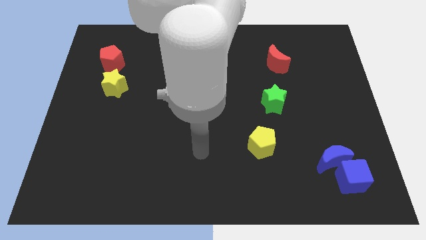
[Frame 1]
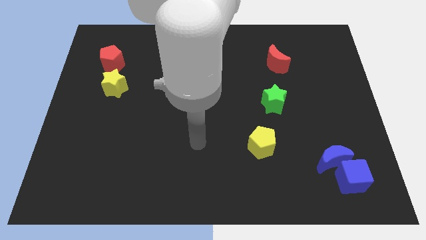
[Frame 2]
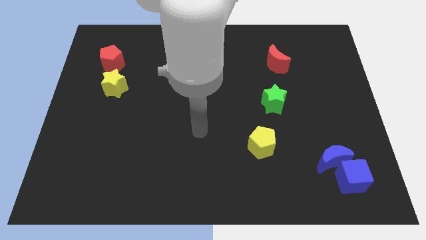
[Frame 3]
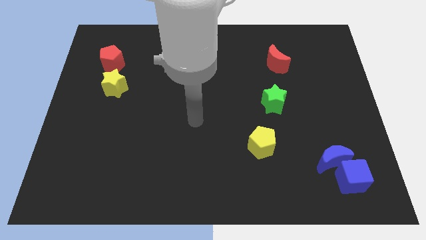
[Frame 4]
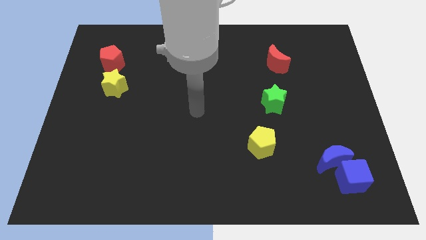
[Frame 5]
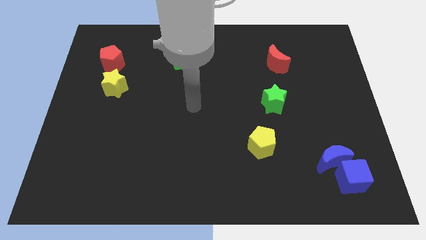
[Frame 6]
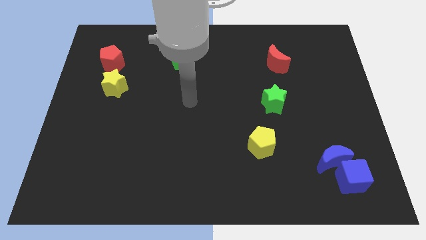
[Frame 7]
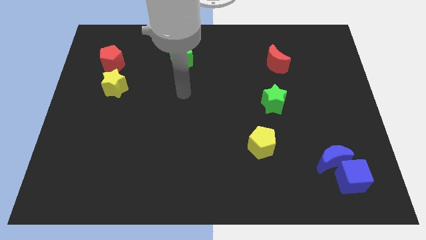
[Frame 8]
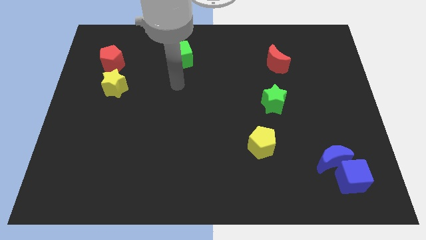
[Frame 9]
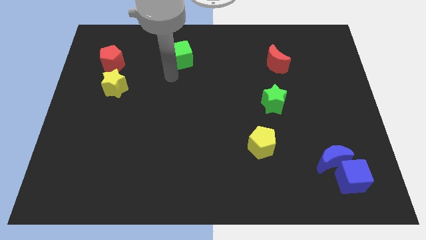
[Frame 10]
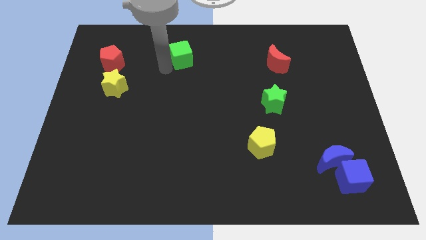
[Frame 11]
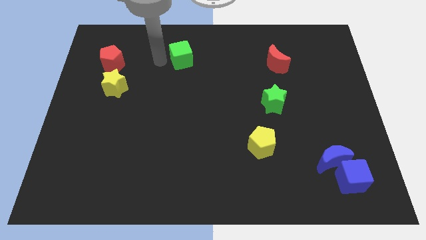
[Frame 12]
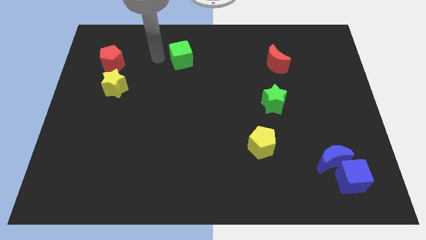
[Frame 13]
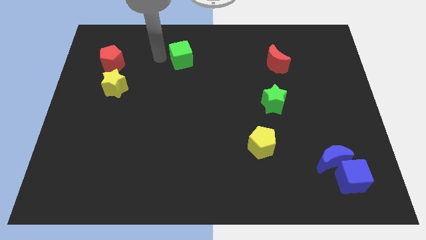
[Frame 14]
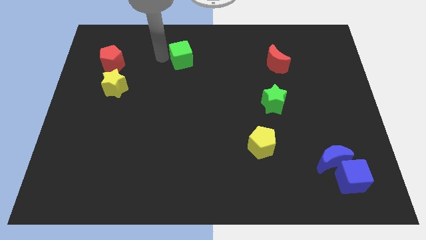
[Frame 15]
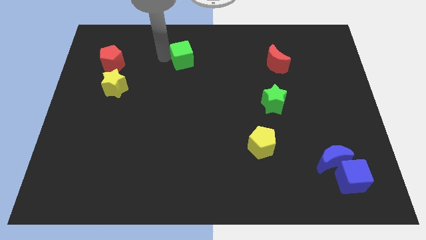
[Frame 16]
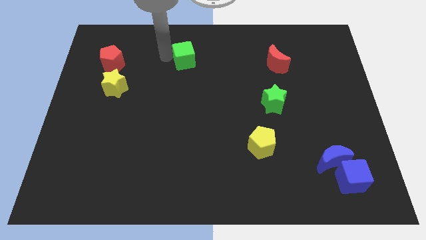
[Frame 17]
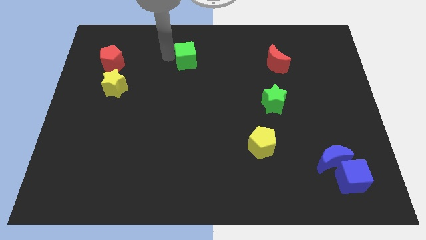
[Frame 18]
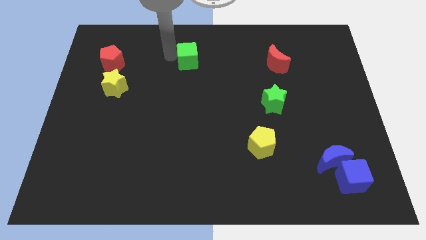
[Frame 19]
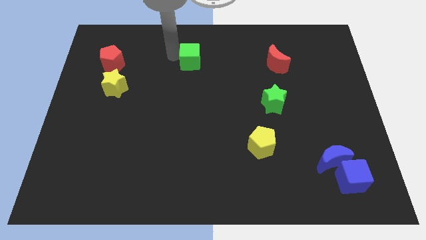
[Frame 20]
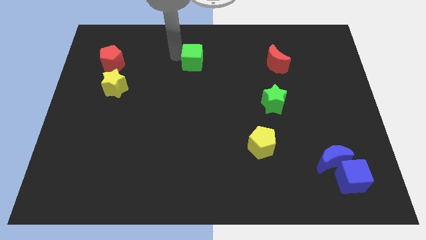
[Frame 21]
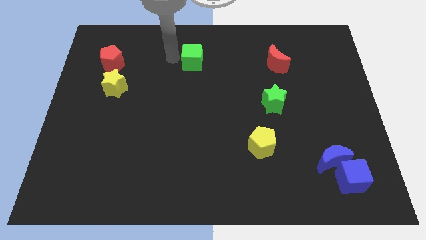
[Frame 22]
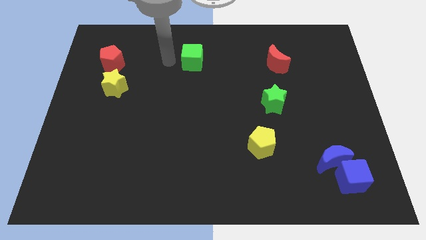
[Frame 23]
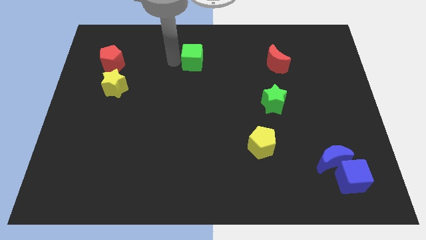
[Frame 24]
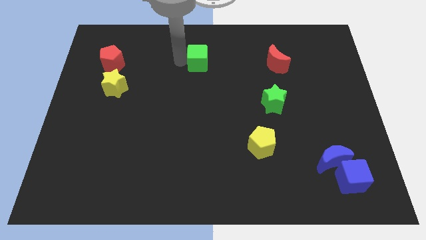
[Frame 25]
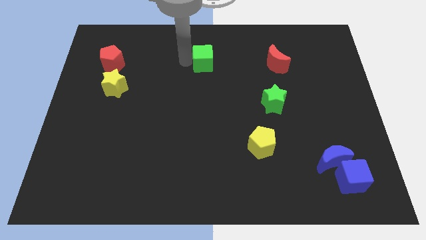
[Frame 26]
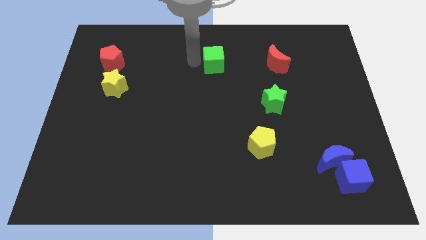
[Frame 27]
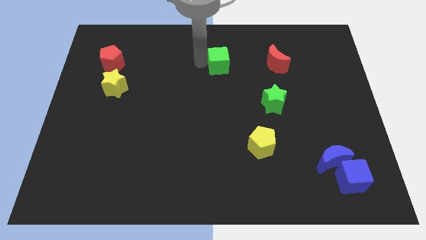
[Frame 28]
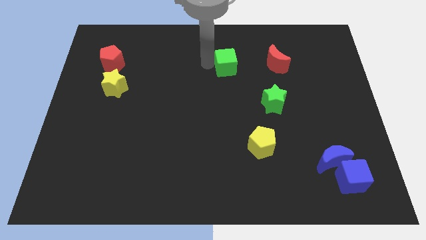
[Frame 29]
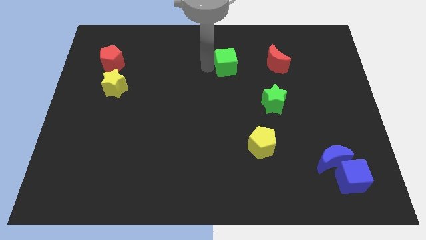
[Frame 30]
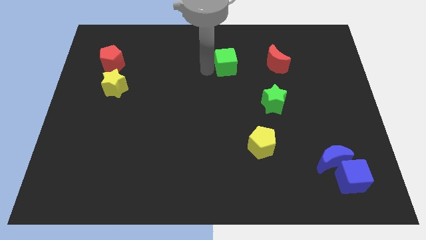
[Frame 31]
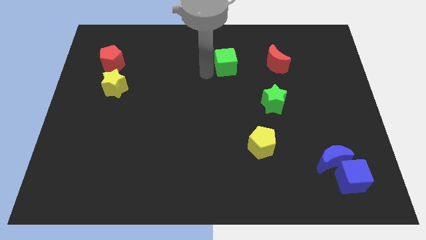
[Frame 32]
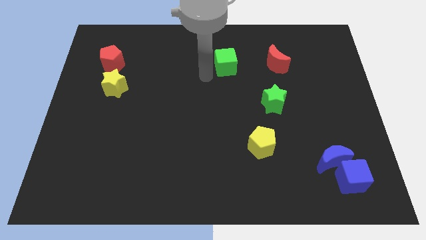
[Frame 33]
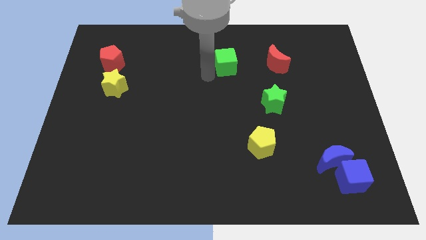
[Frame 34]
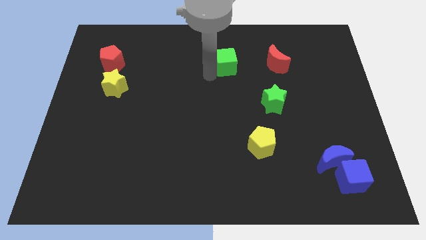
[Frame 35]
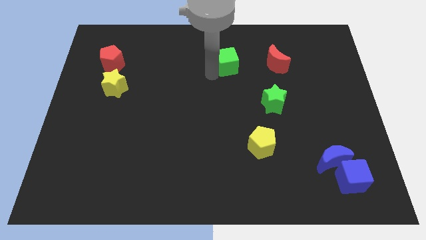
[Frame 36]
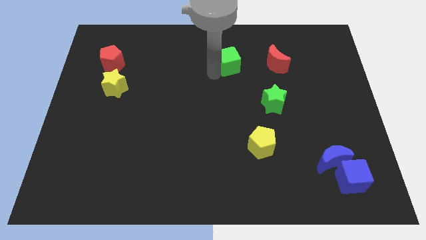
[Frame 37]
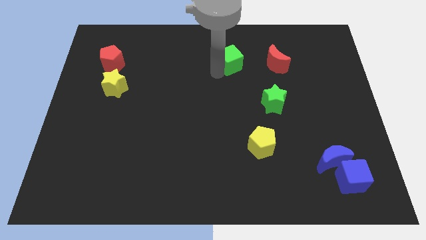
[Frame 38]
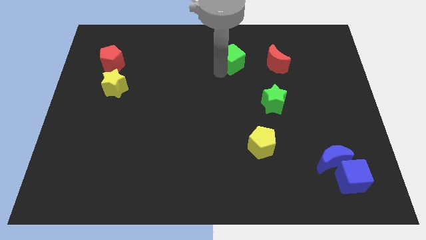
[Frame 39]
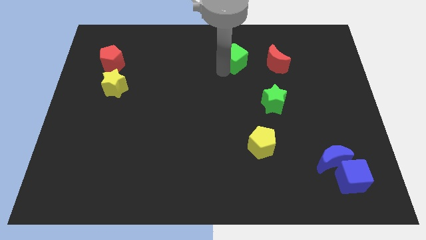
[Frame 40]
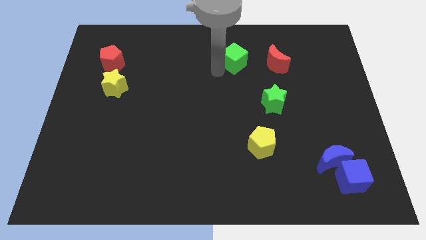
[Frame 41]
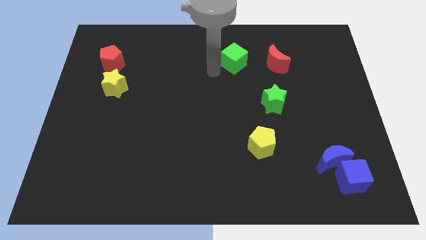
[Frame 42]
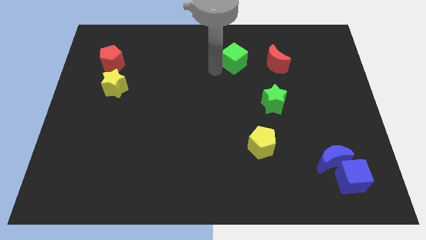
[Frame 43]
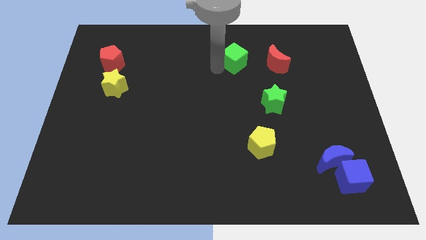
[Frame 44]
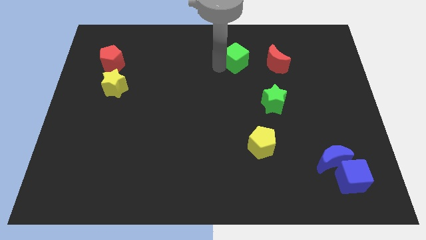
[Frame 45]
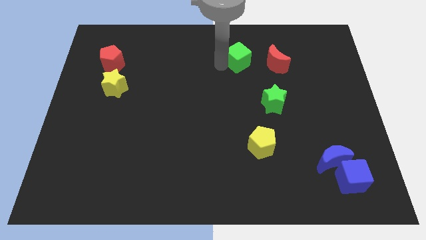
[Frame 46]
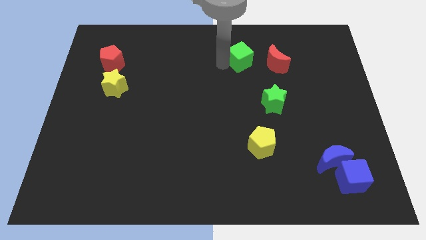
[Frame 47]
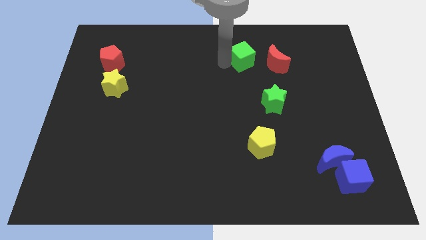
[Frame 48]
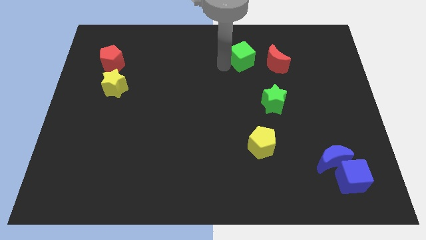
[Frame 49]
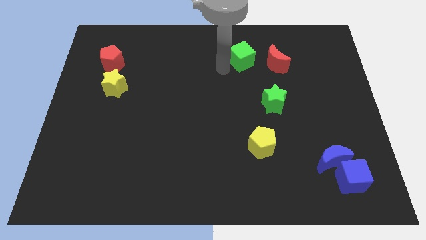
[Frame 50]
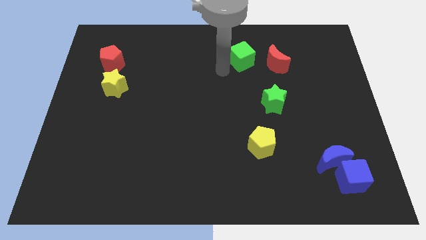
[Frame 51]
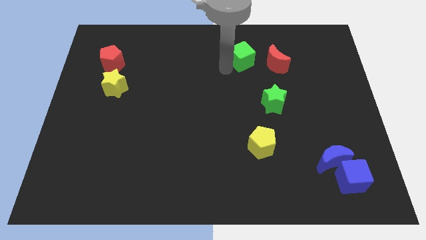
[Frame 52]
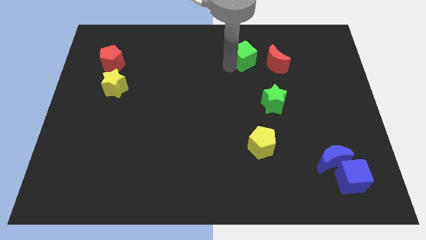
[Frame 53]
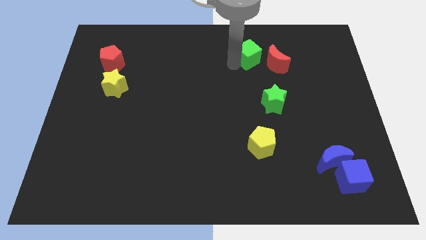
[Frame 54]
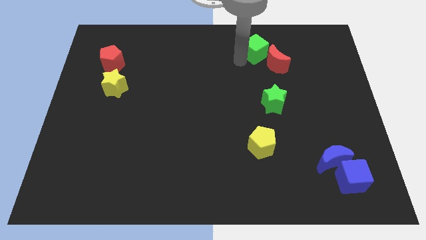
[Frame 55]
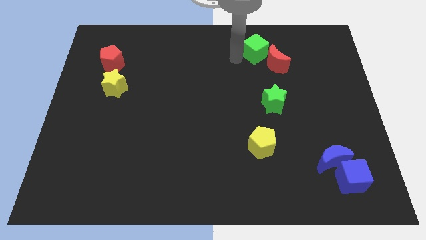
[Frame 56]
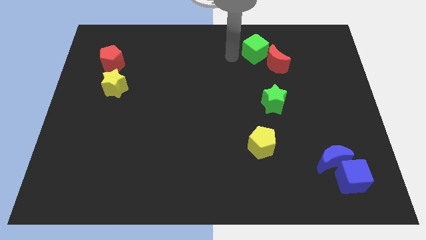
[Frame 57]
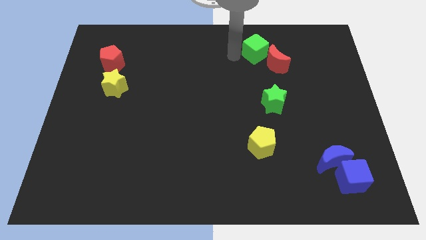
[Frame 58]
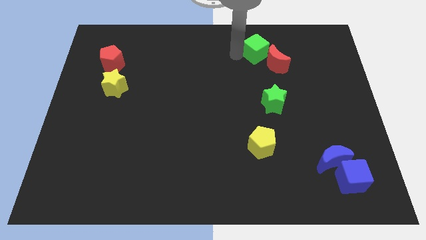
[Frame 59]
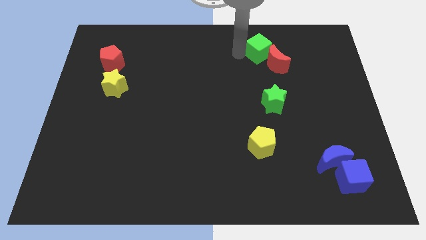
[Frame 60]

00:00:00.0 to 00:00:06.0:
slide the green cube to the right

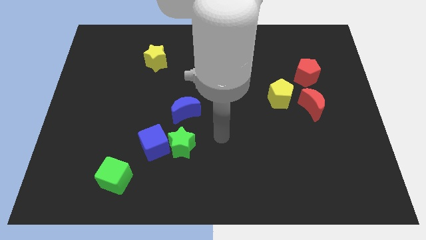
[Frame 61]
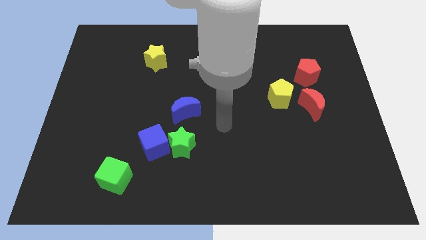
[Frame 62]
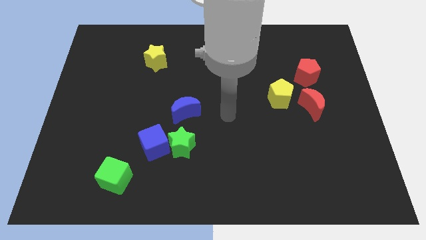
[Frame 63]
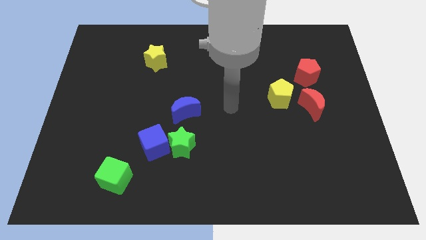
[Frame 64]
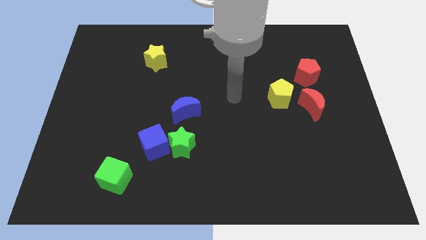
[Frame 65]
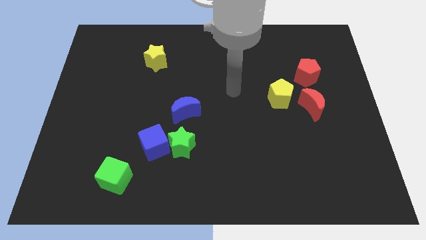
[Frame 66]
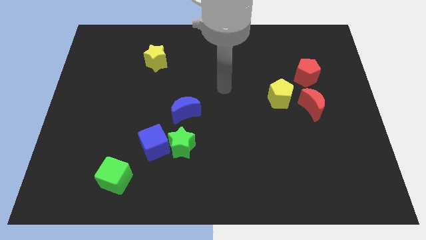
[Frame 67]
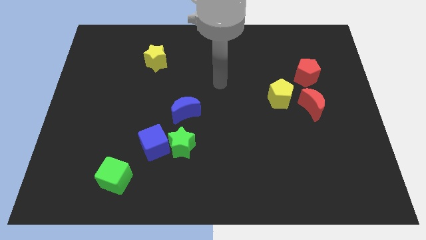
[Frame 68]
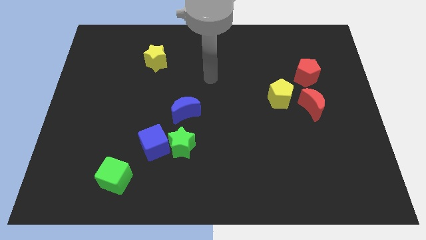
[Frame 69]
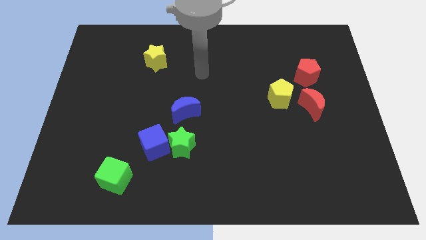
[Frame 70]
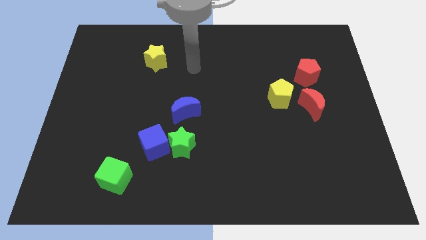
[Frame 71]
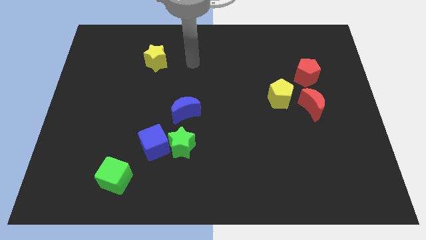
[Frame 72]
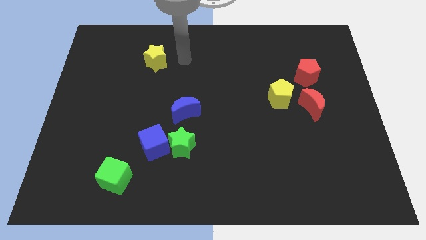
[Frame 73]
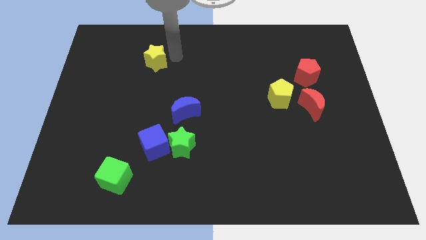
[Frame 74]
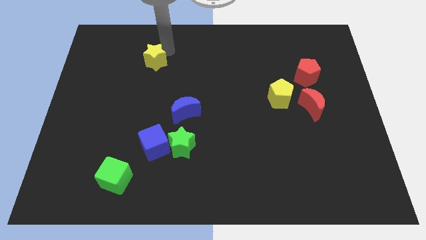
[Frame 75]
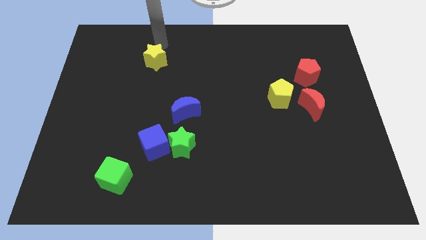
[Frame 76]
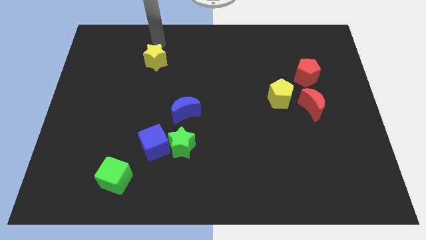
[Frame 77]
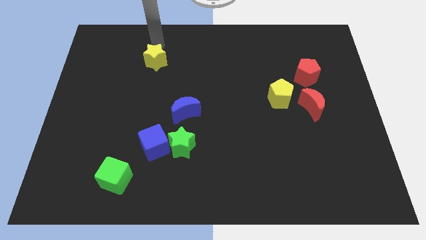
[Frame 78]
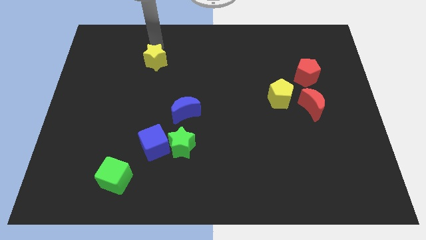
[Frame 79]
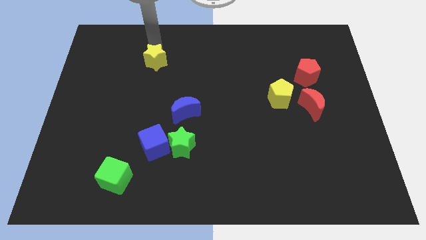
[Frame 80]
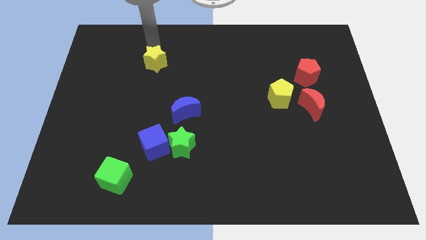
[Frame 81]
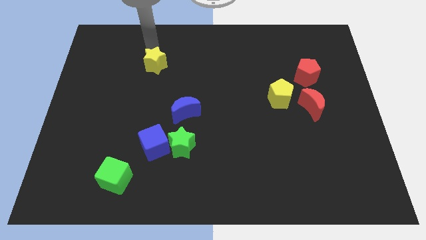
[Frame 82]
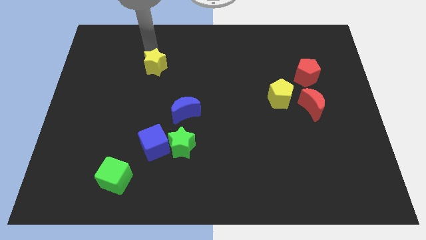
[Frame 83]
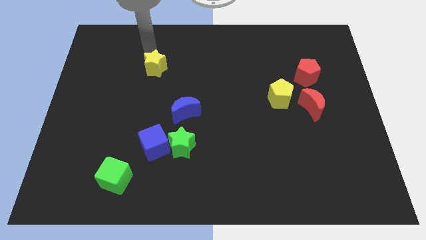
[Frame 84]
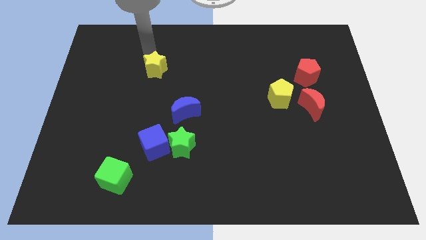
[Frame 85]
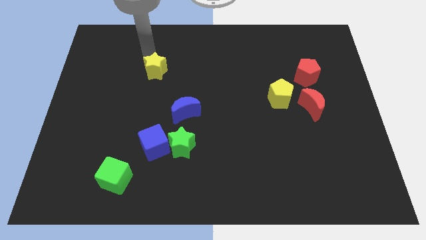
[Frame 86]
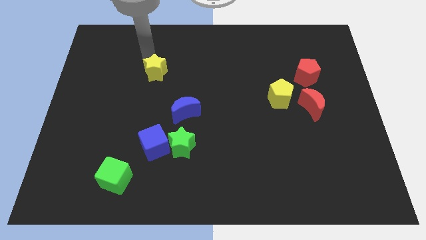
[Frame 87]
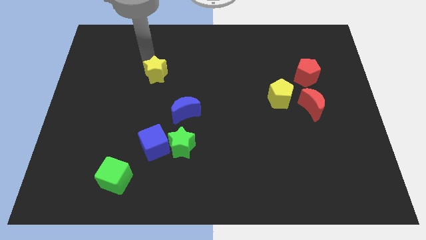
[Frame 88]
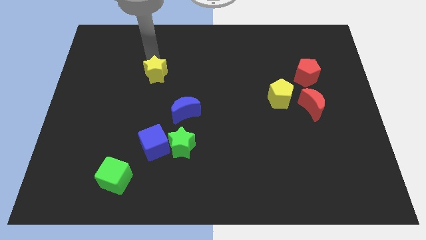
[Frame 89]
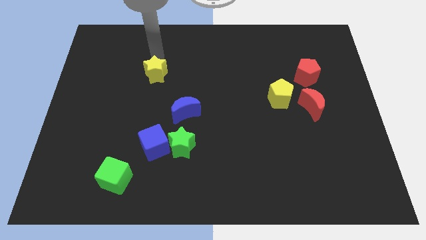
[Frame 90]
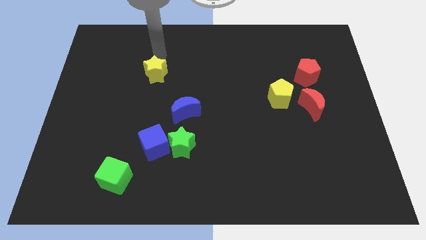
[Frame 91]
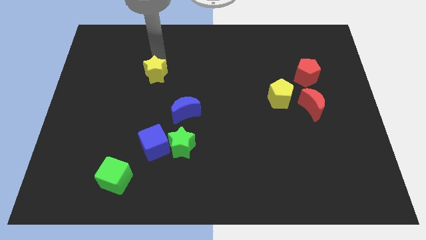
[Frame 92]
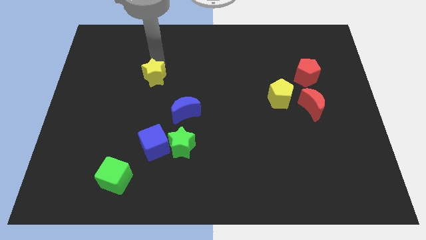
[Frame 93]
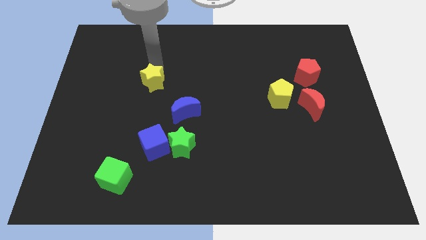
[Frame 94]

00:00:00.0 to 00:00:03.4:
move the yellow star a little bit down
